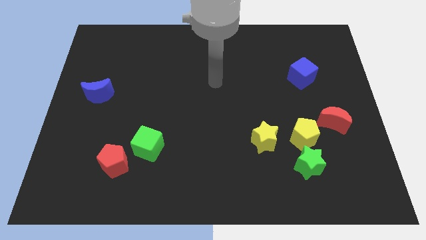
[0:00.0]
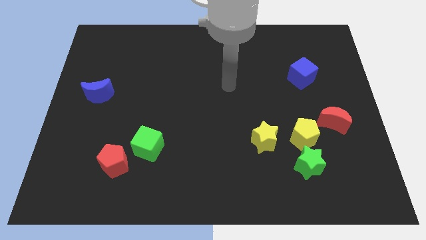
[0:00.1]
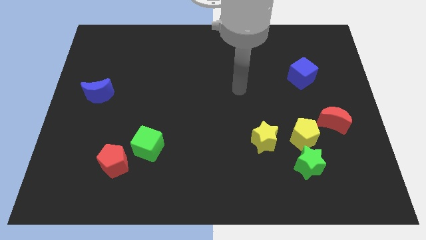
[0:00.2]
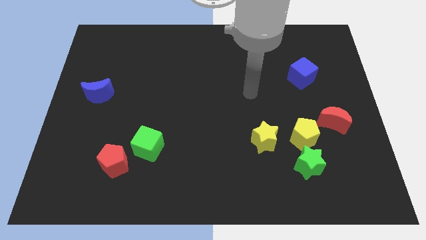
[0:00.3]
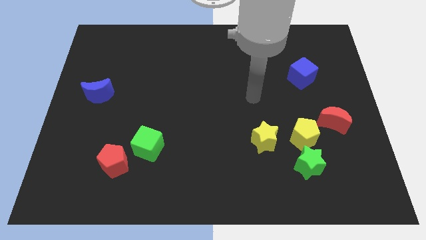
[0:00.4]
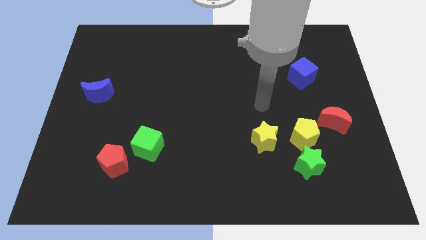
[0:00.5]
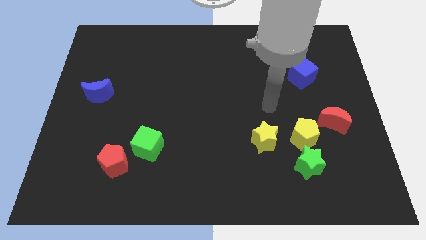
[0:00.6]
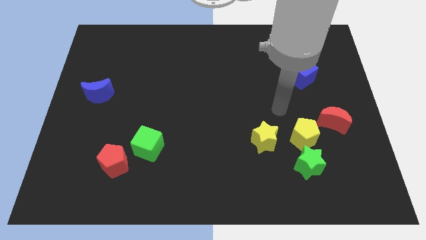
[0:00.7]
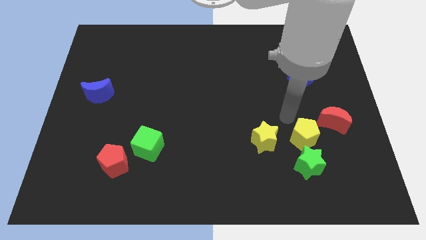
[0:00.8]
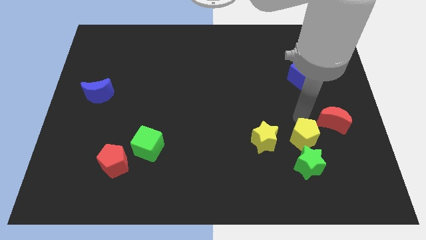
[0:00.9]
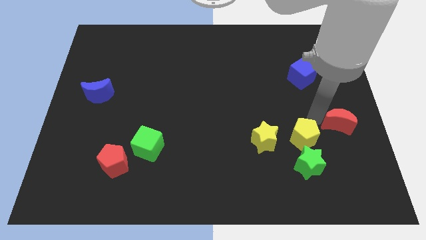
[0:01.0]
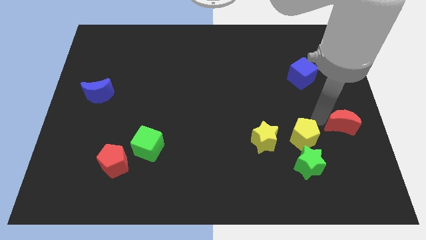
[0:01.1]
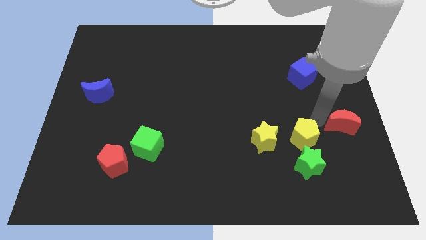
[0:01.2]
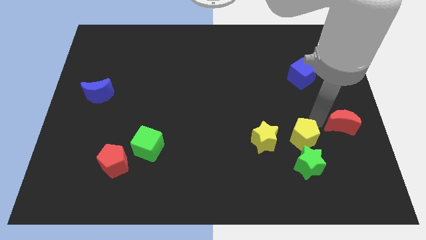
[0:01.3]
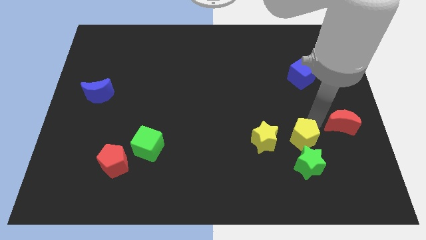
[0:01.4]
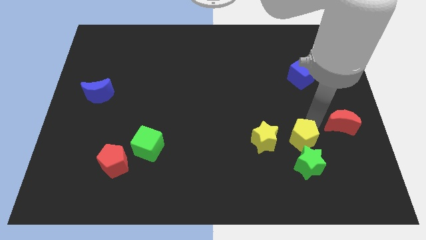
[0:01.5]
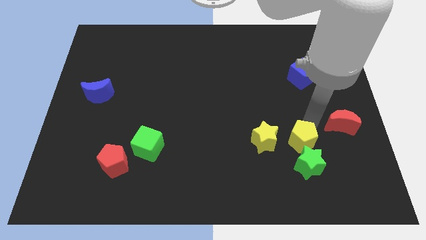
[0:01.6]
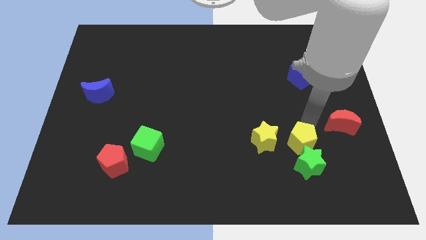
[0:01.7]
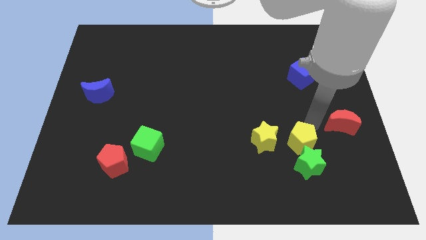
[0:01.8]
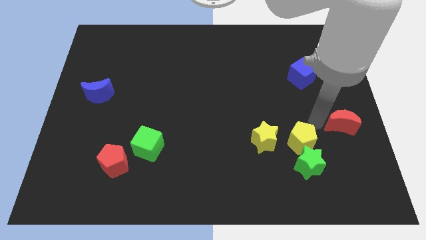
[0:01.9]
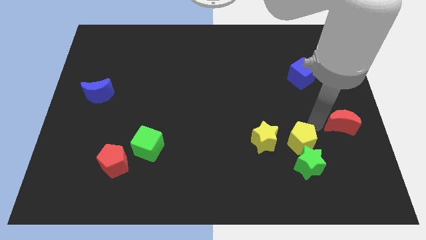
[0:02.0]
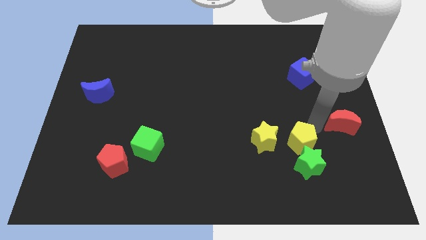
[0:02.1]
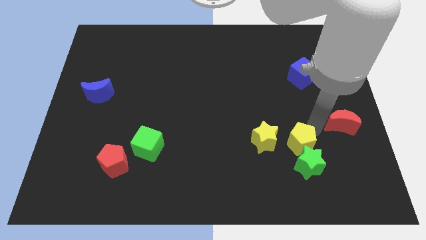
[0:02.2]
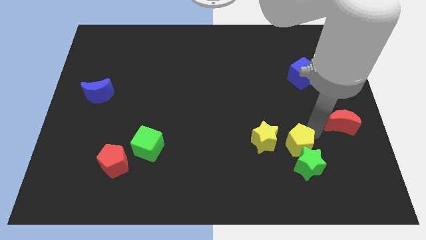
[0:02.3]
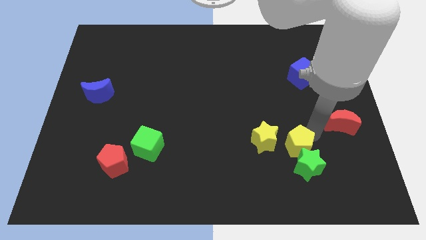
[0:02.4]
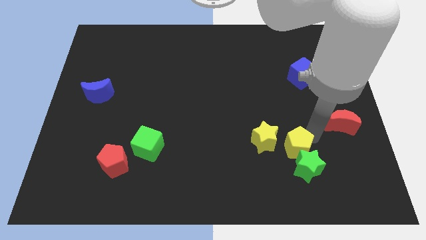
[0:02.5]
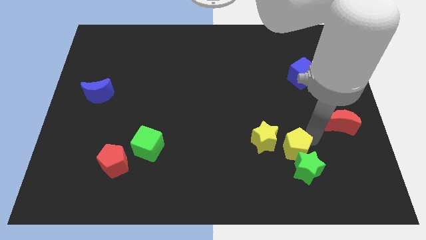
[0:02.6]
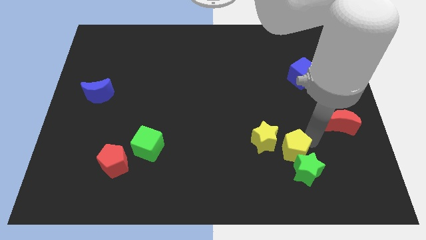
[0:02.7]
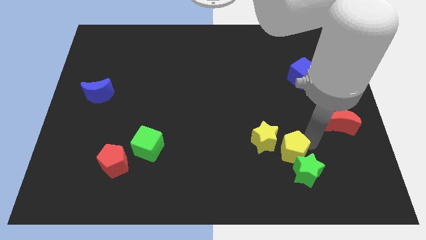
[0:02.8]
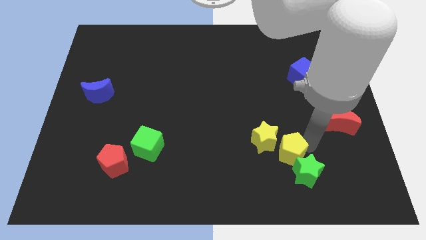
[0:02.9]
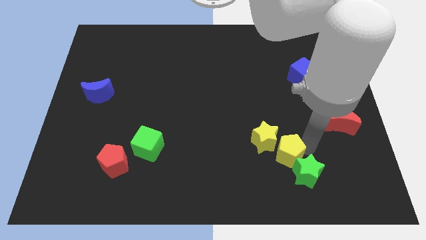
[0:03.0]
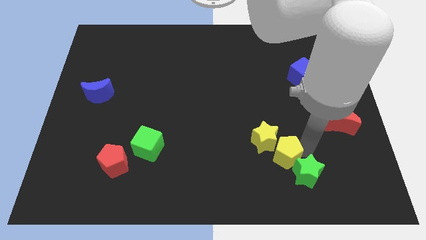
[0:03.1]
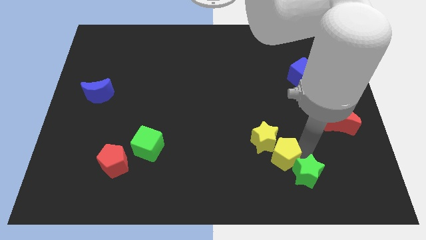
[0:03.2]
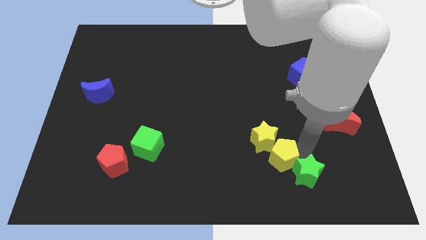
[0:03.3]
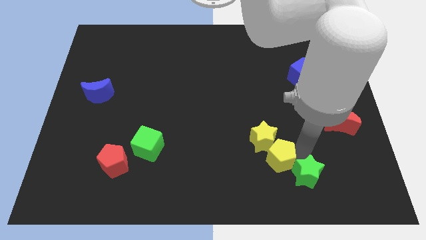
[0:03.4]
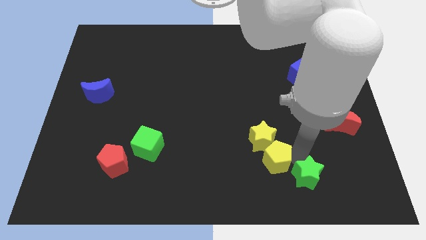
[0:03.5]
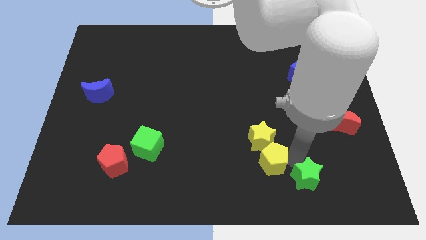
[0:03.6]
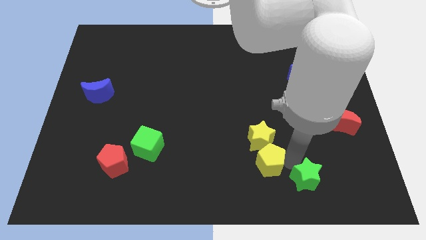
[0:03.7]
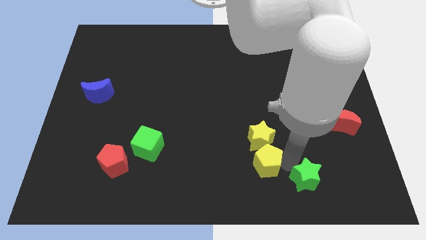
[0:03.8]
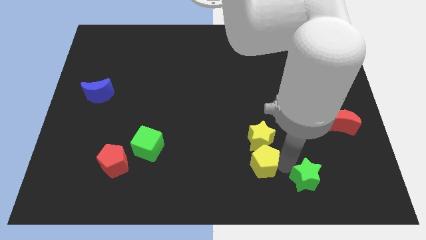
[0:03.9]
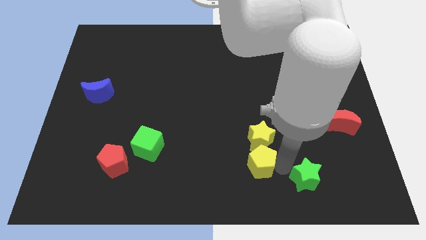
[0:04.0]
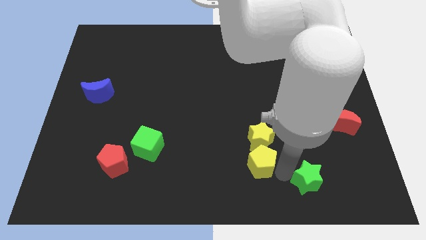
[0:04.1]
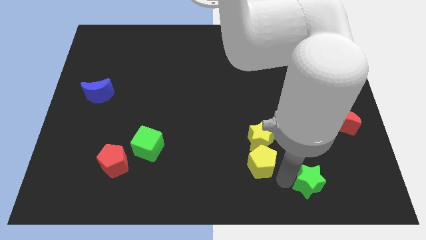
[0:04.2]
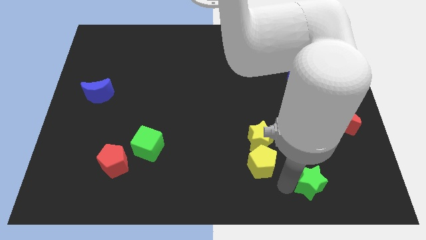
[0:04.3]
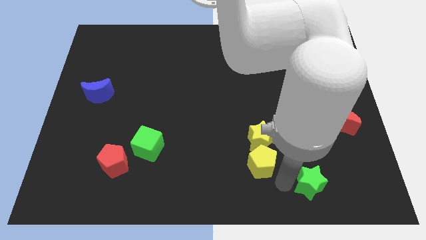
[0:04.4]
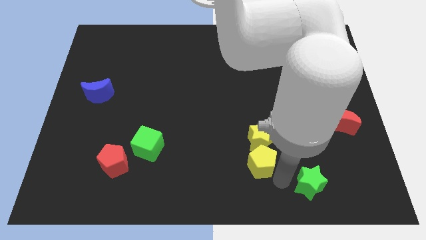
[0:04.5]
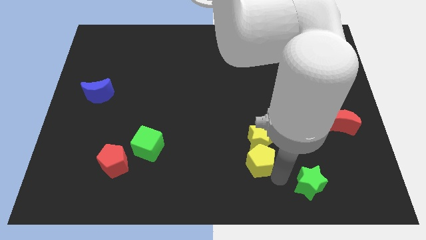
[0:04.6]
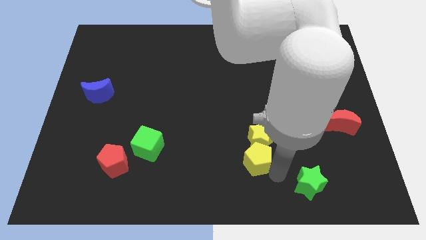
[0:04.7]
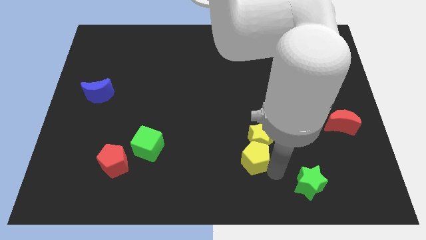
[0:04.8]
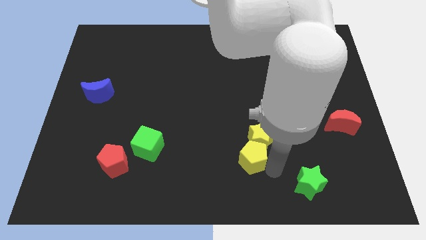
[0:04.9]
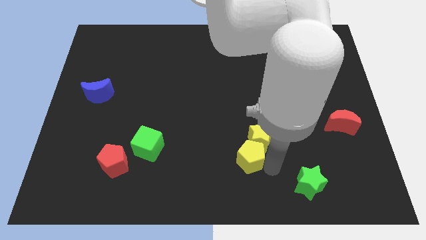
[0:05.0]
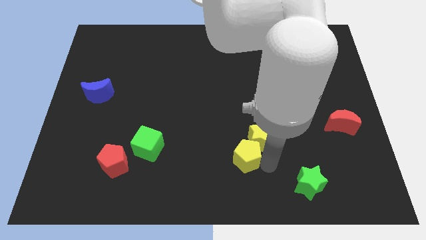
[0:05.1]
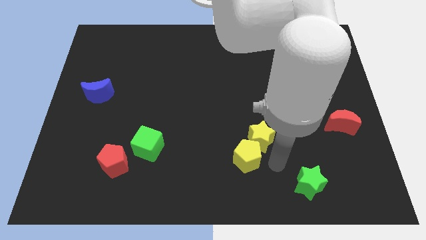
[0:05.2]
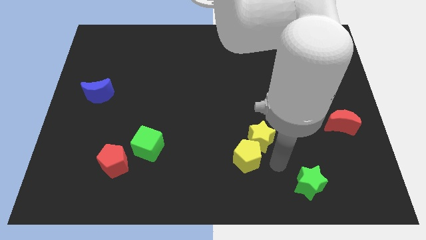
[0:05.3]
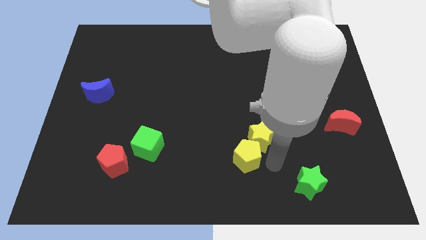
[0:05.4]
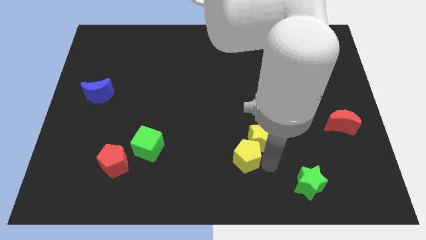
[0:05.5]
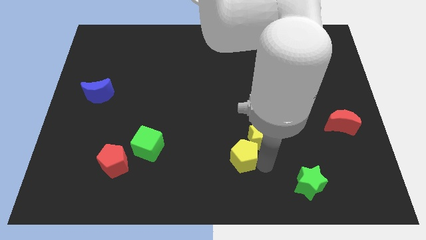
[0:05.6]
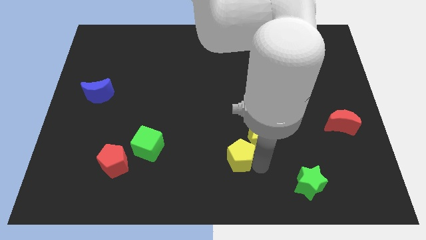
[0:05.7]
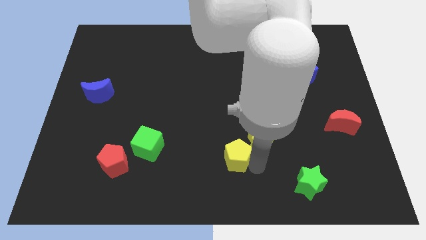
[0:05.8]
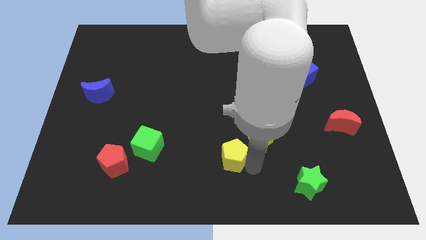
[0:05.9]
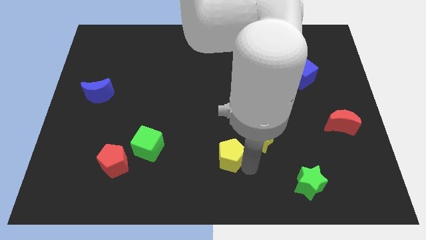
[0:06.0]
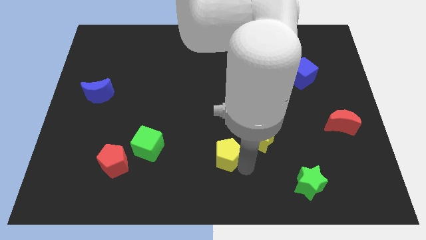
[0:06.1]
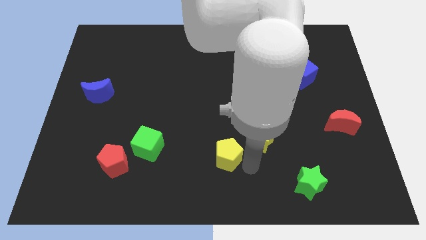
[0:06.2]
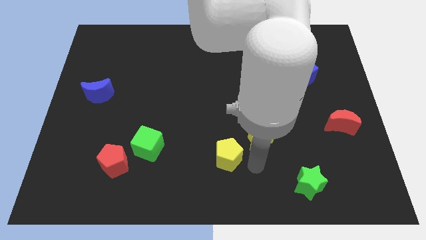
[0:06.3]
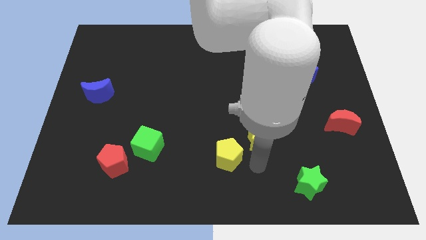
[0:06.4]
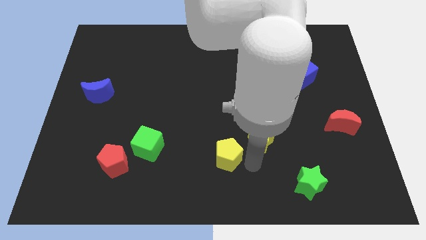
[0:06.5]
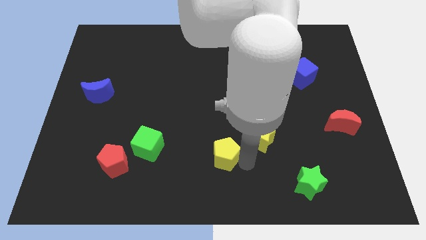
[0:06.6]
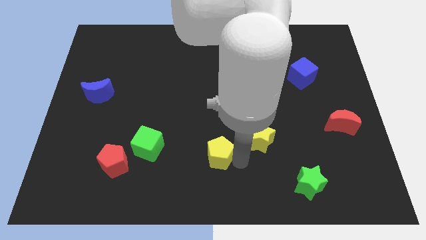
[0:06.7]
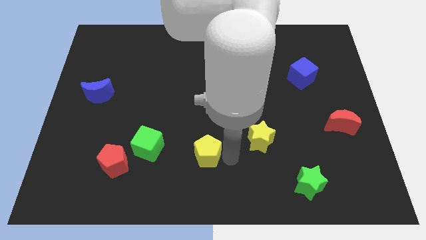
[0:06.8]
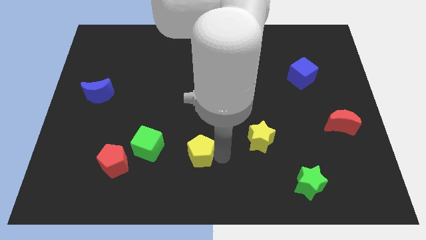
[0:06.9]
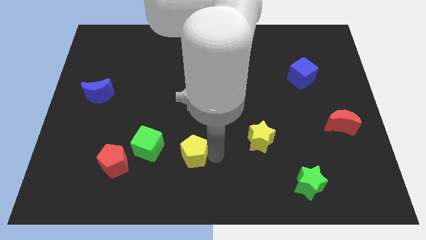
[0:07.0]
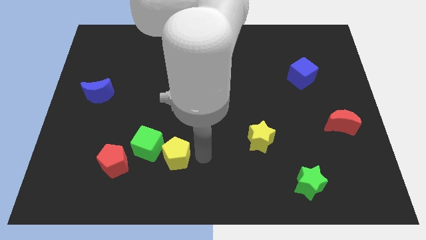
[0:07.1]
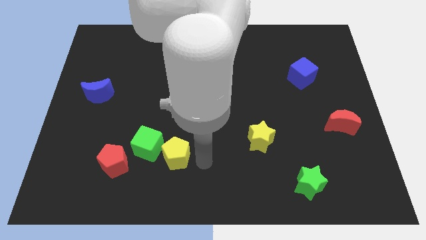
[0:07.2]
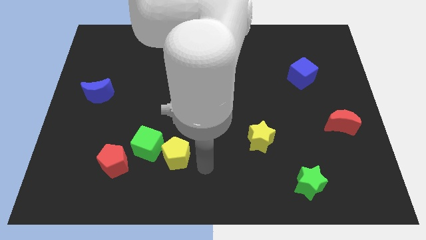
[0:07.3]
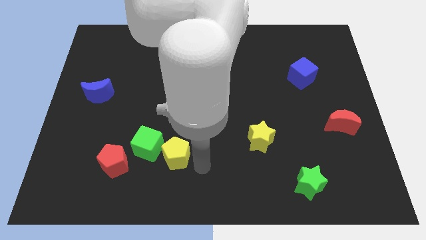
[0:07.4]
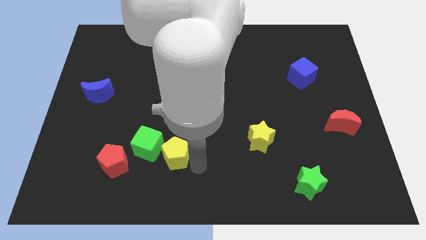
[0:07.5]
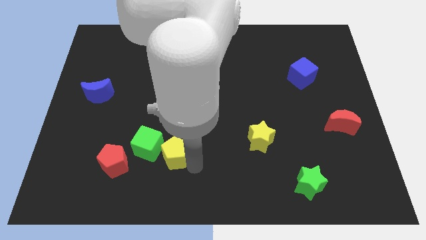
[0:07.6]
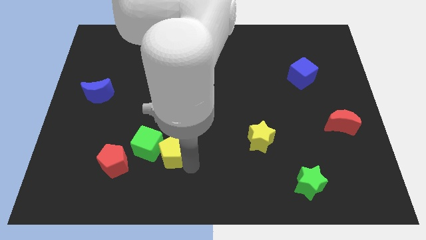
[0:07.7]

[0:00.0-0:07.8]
slide the yellow pentagon next to the green cube
